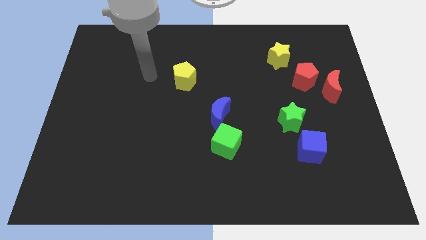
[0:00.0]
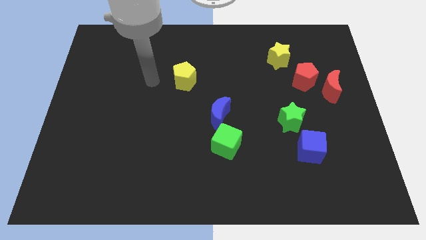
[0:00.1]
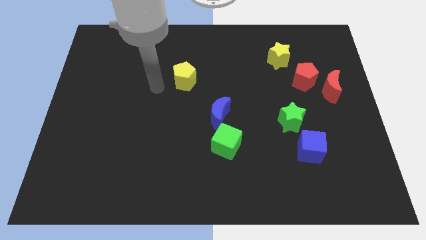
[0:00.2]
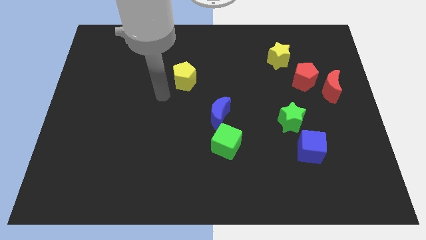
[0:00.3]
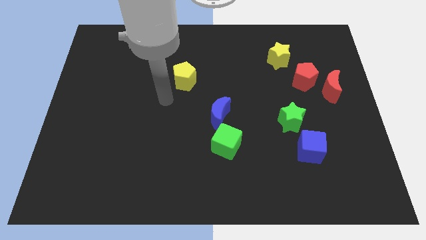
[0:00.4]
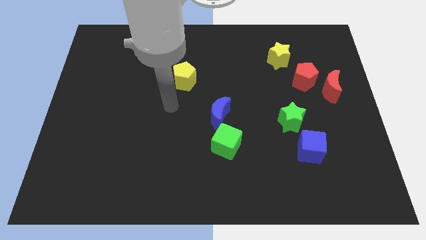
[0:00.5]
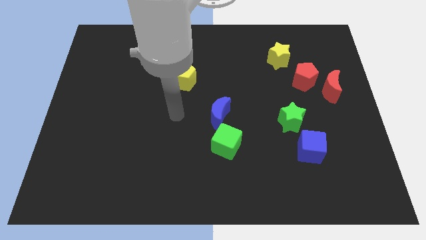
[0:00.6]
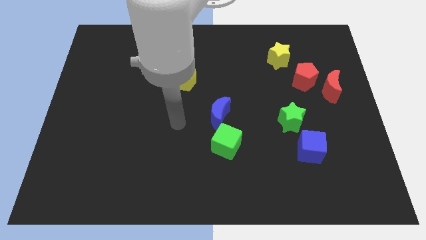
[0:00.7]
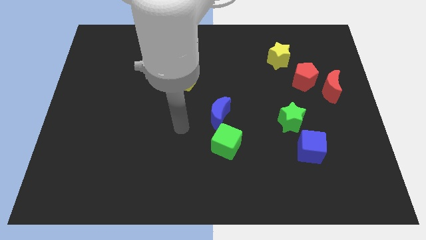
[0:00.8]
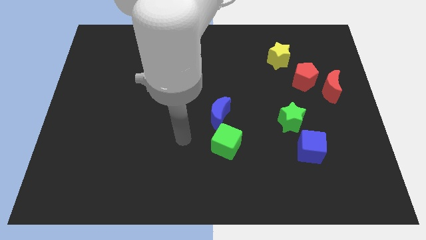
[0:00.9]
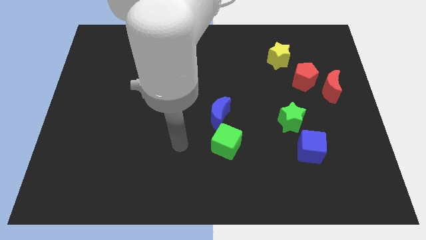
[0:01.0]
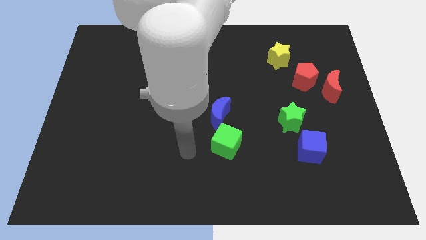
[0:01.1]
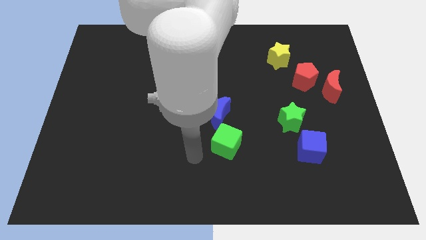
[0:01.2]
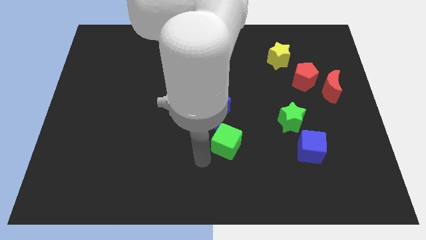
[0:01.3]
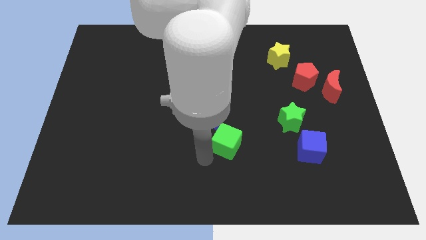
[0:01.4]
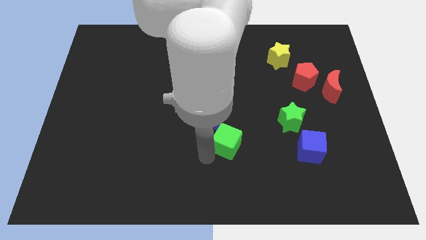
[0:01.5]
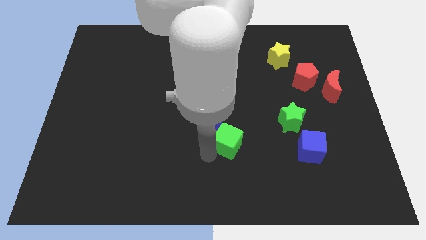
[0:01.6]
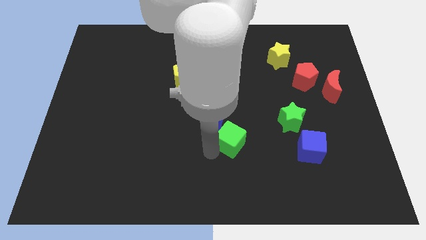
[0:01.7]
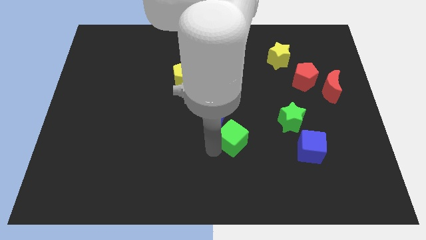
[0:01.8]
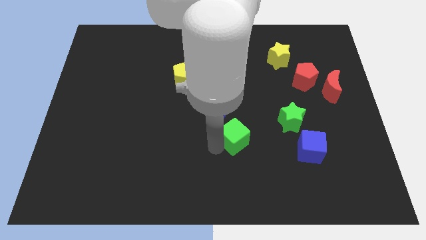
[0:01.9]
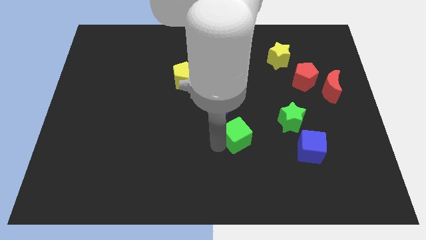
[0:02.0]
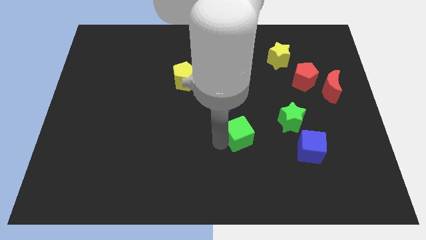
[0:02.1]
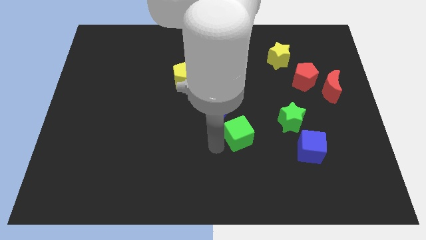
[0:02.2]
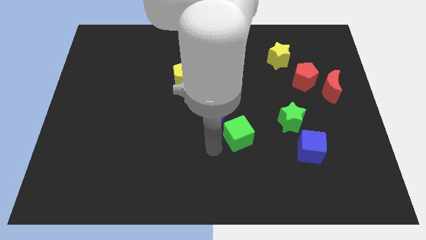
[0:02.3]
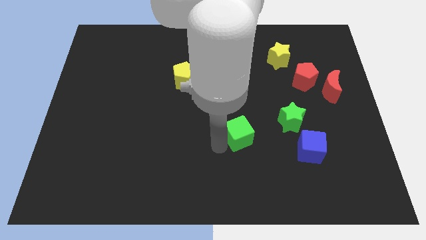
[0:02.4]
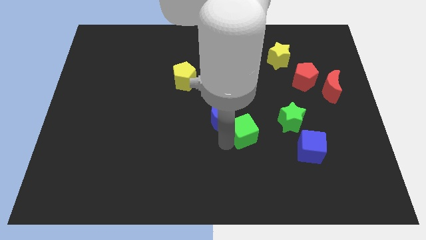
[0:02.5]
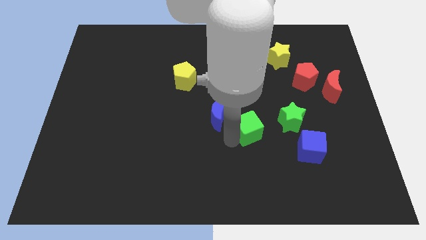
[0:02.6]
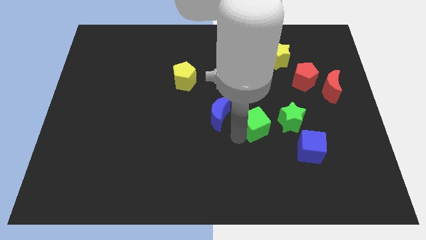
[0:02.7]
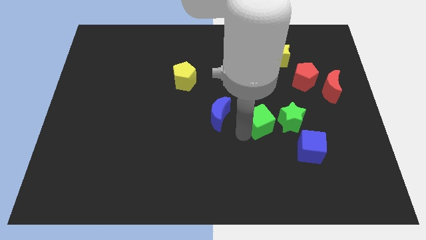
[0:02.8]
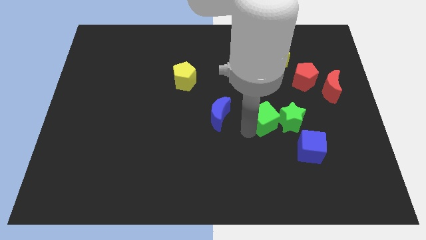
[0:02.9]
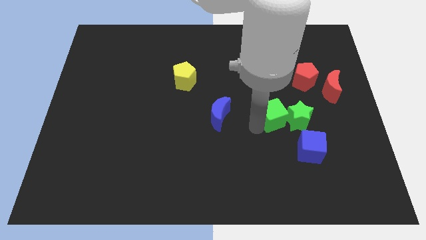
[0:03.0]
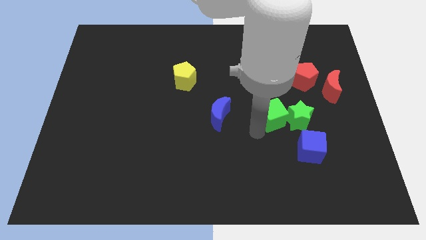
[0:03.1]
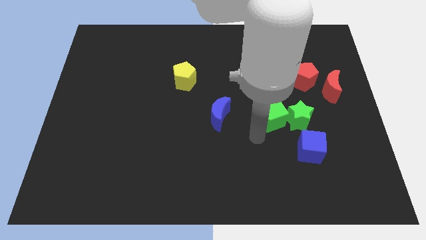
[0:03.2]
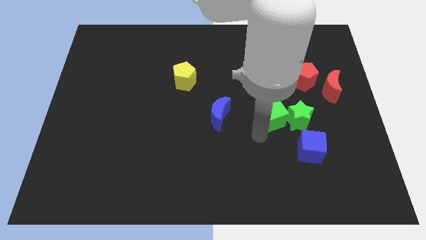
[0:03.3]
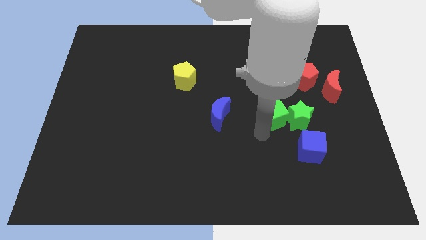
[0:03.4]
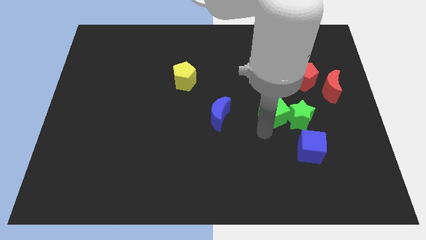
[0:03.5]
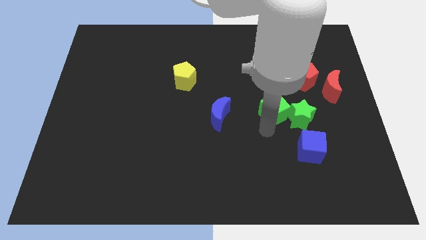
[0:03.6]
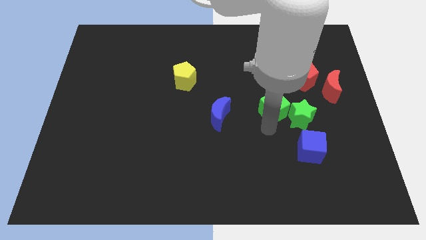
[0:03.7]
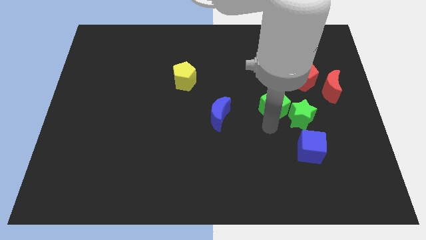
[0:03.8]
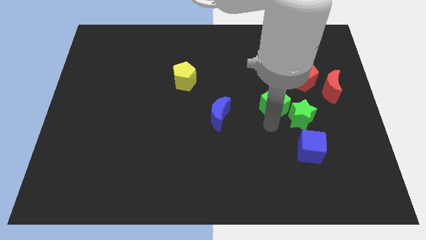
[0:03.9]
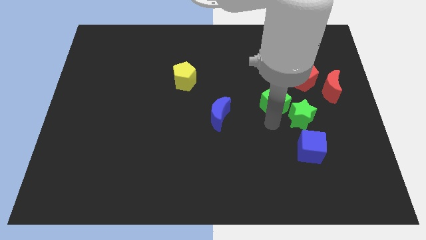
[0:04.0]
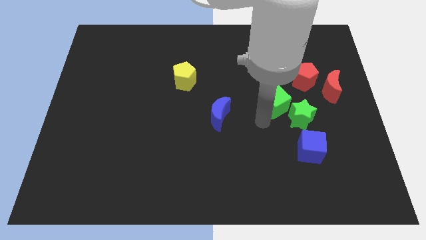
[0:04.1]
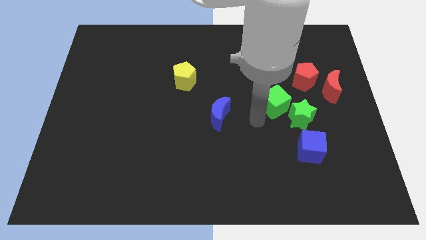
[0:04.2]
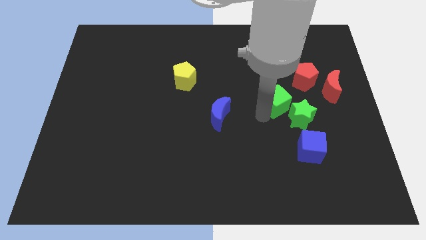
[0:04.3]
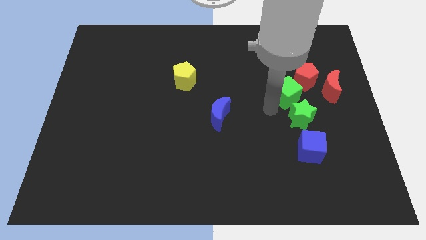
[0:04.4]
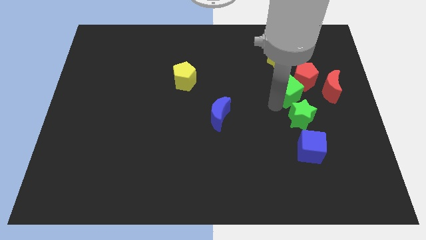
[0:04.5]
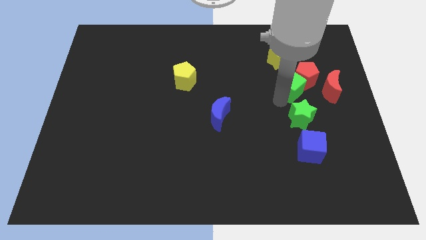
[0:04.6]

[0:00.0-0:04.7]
slide the green cube close to the red pentagon

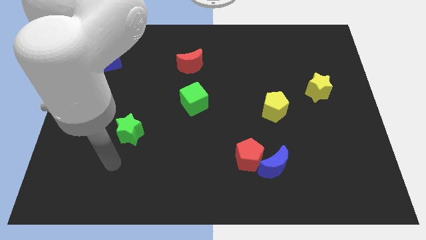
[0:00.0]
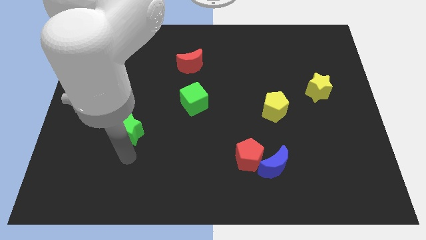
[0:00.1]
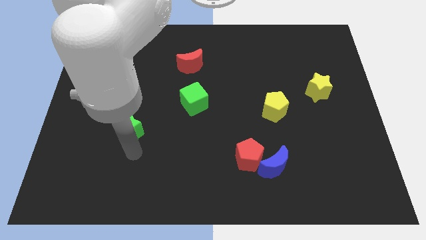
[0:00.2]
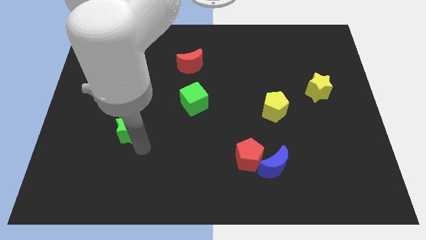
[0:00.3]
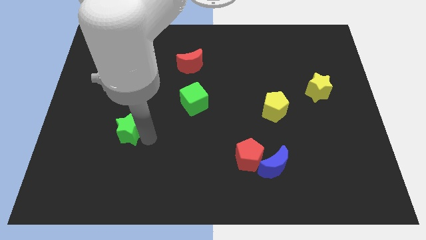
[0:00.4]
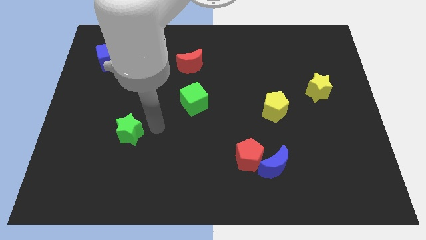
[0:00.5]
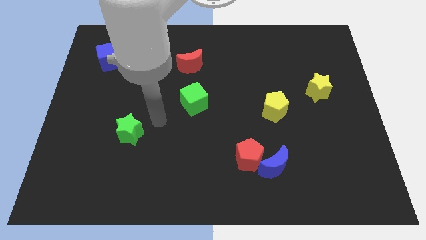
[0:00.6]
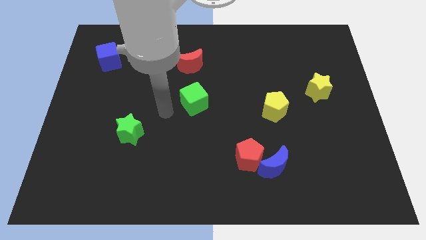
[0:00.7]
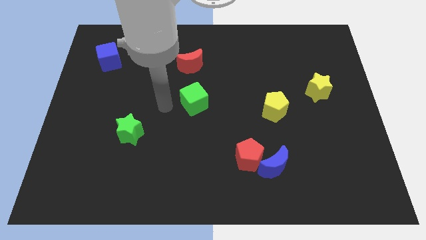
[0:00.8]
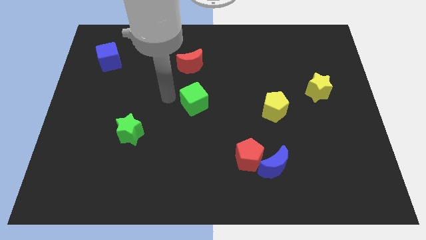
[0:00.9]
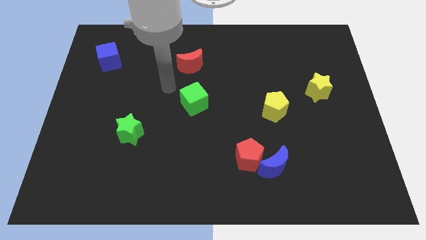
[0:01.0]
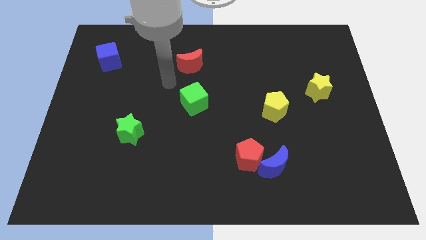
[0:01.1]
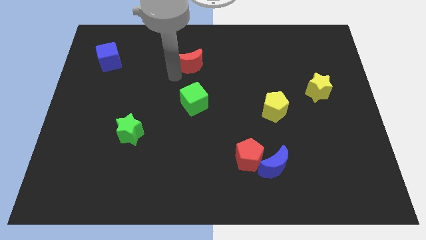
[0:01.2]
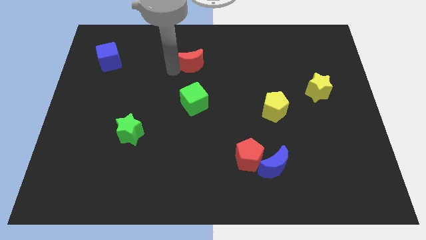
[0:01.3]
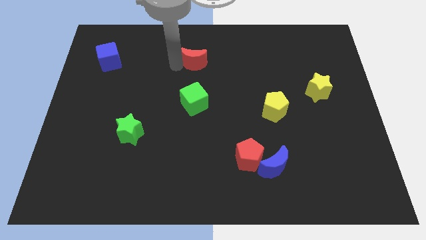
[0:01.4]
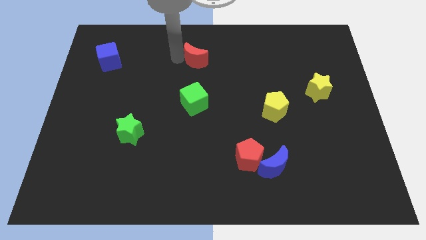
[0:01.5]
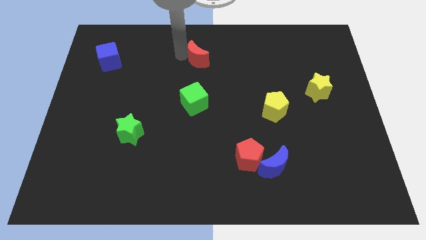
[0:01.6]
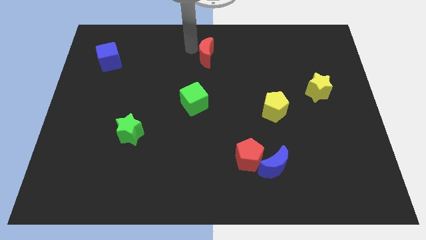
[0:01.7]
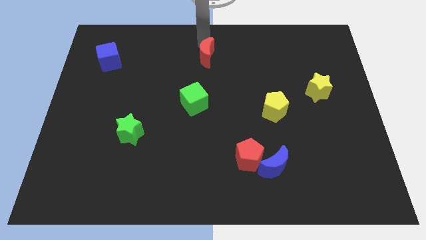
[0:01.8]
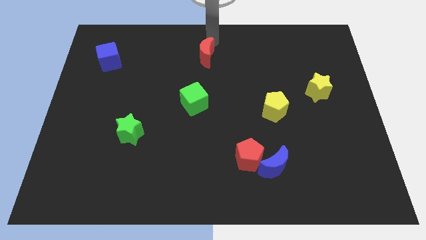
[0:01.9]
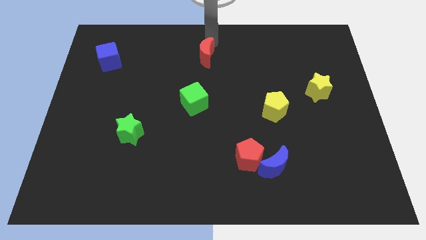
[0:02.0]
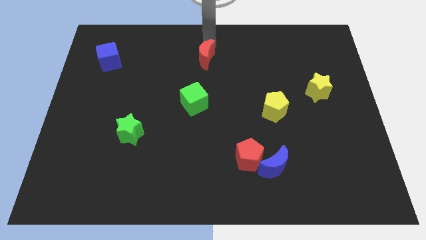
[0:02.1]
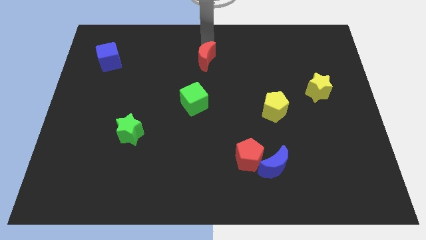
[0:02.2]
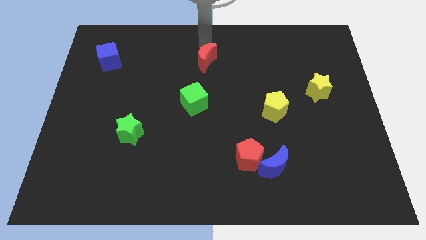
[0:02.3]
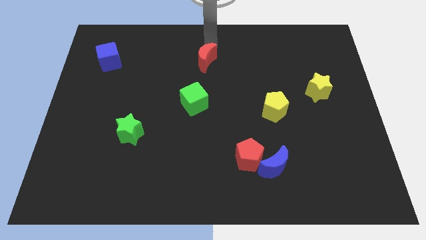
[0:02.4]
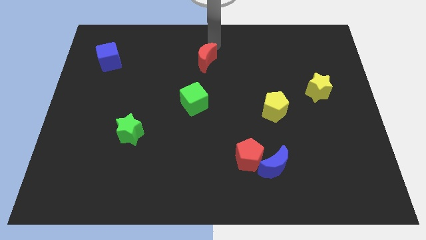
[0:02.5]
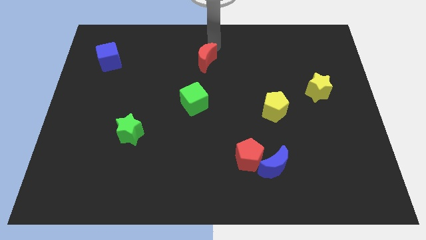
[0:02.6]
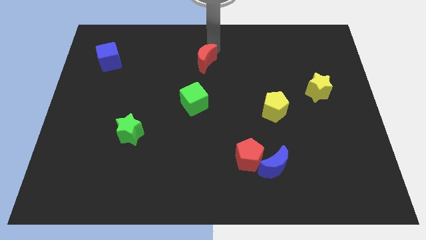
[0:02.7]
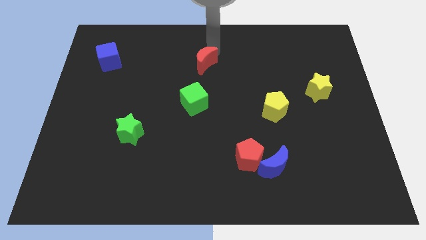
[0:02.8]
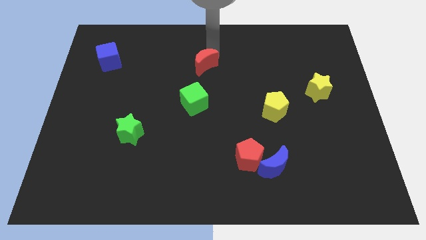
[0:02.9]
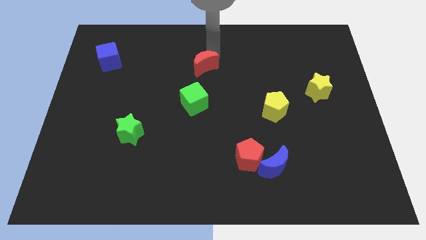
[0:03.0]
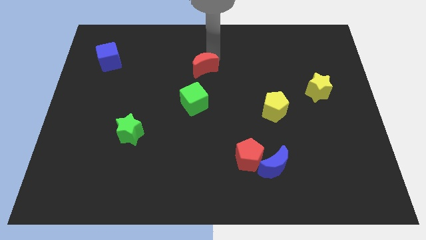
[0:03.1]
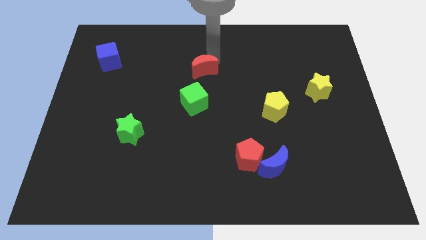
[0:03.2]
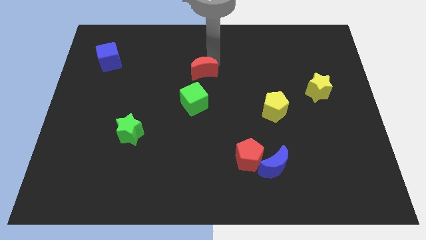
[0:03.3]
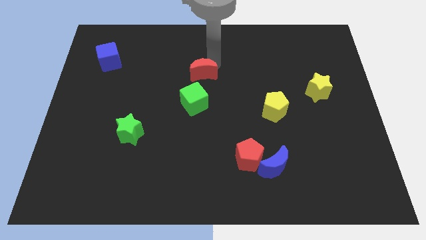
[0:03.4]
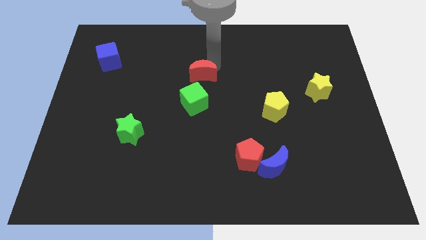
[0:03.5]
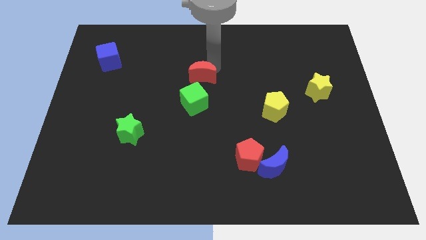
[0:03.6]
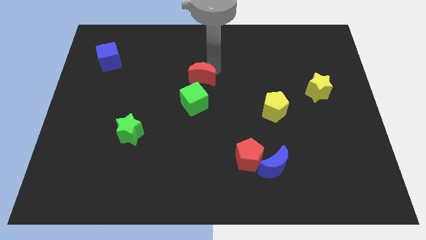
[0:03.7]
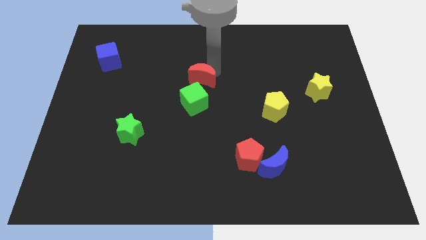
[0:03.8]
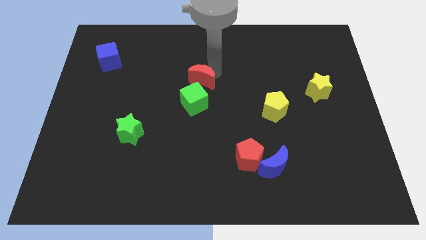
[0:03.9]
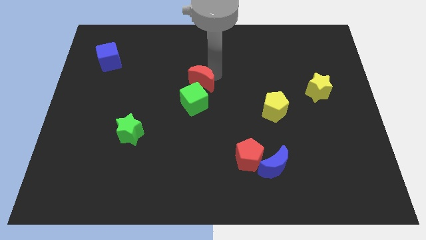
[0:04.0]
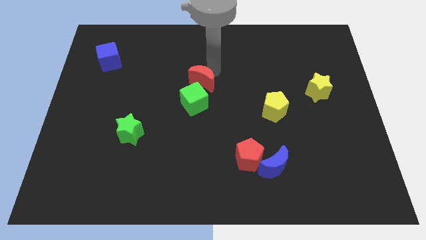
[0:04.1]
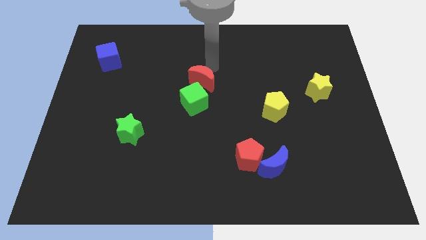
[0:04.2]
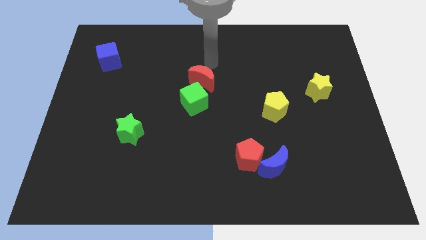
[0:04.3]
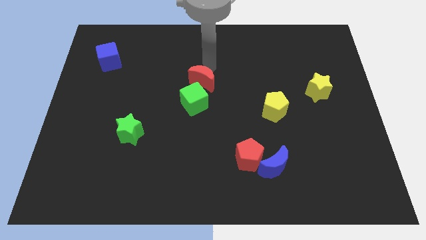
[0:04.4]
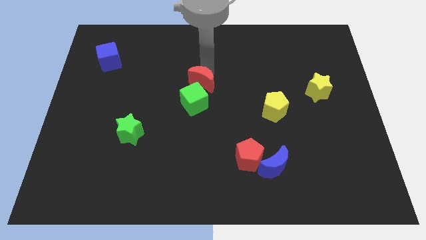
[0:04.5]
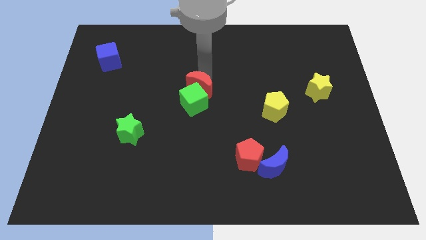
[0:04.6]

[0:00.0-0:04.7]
move the red moon towards the green cube
